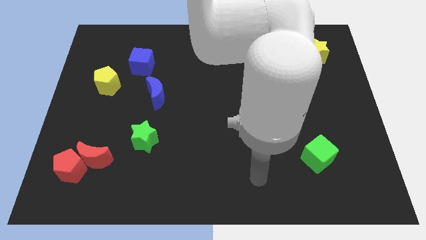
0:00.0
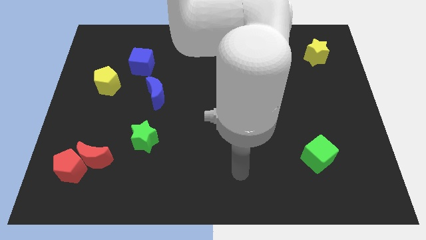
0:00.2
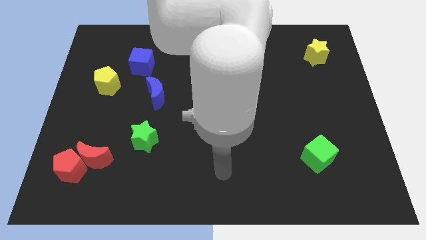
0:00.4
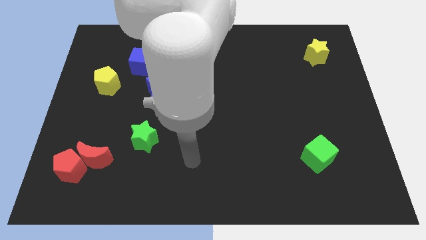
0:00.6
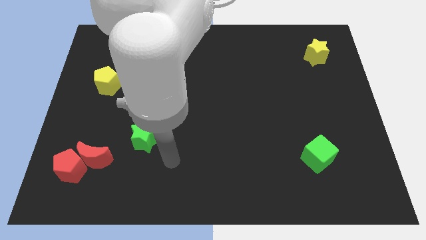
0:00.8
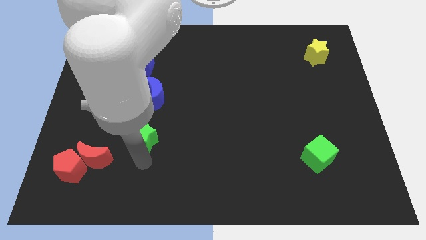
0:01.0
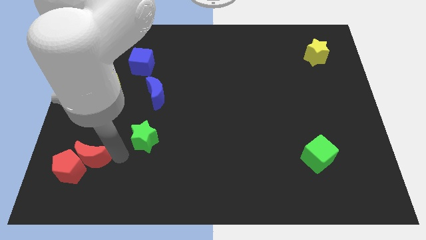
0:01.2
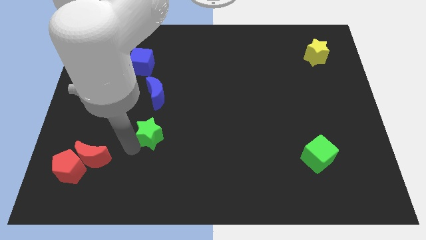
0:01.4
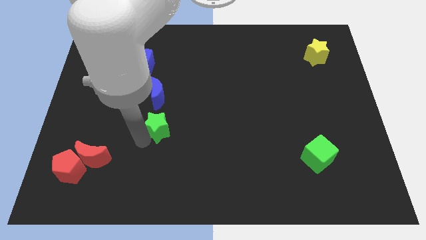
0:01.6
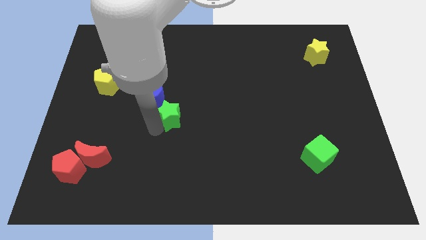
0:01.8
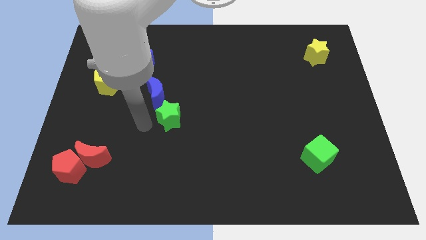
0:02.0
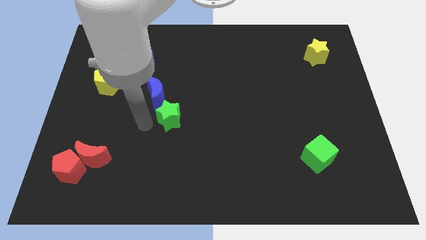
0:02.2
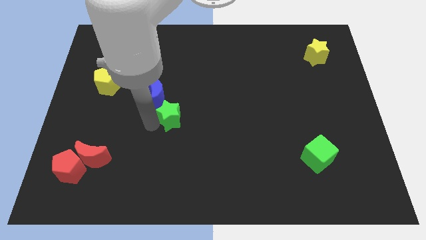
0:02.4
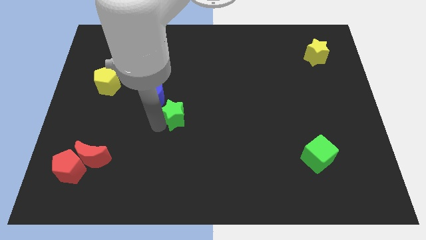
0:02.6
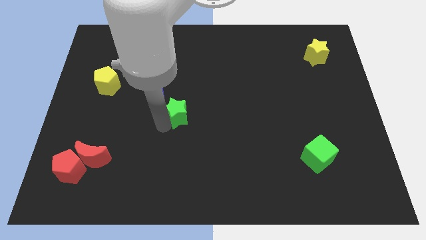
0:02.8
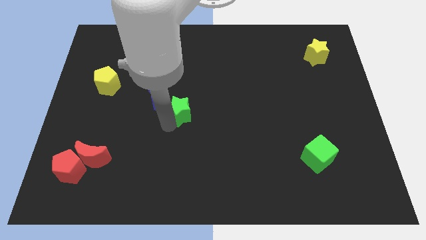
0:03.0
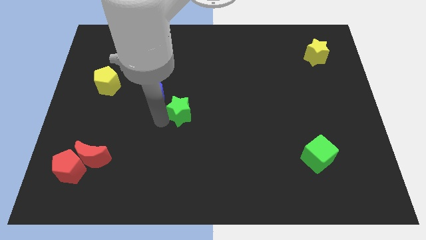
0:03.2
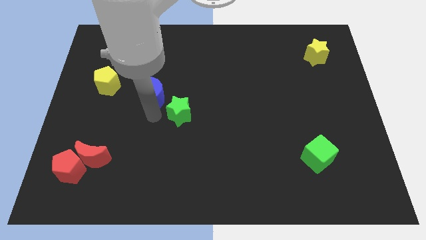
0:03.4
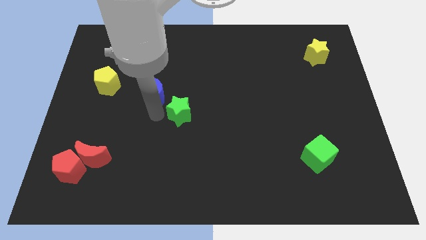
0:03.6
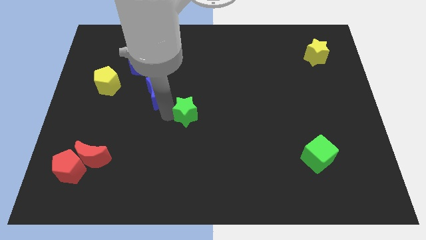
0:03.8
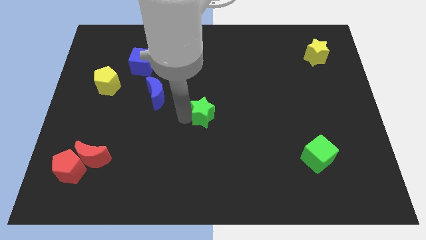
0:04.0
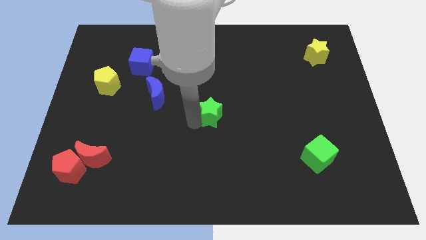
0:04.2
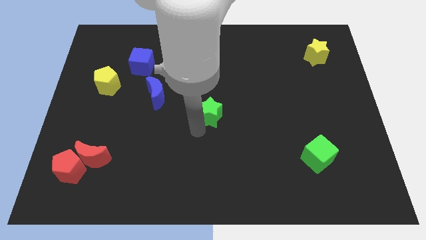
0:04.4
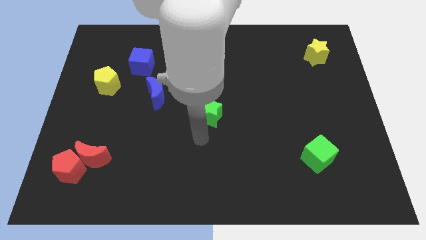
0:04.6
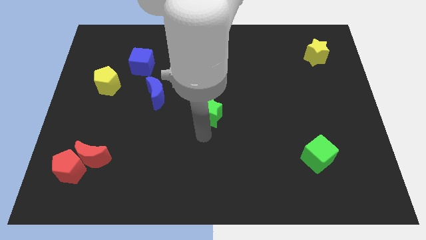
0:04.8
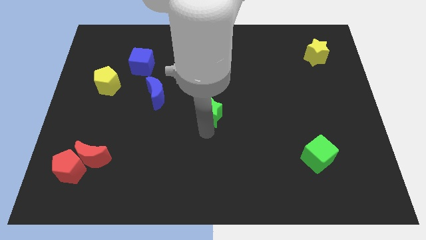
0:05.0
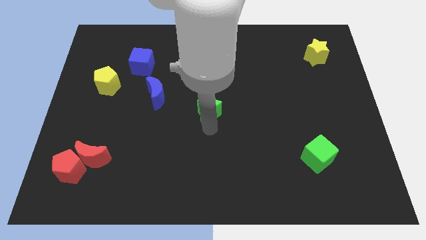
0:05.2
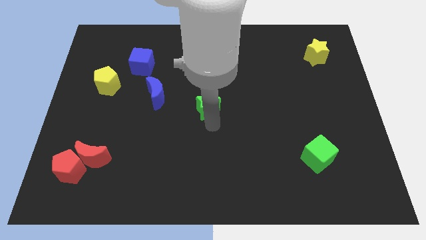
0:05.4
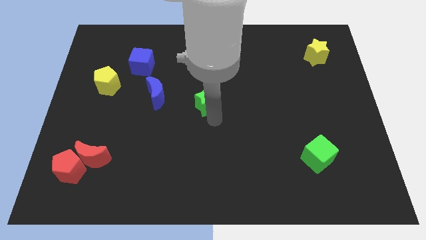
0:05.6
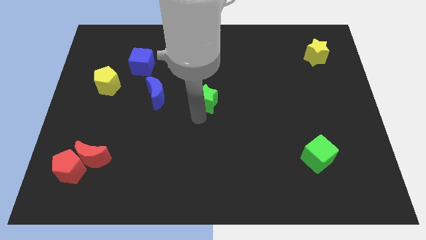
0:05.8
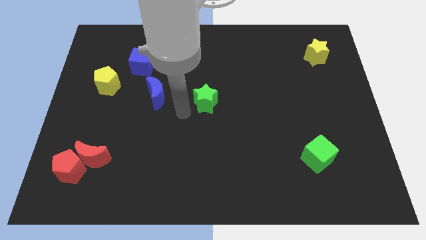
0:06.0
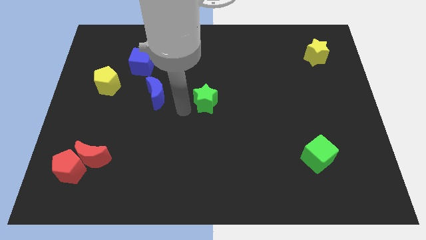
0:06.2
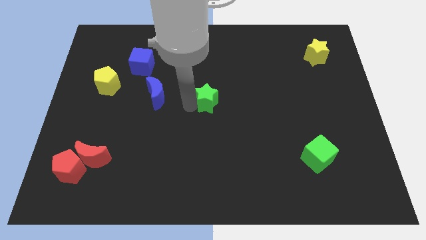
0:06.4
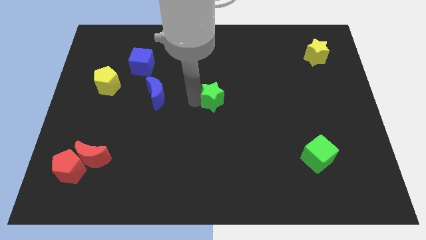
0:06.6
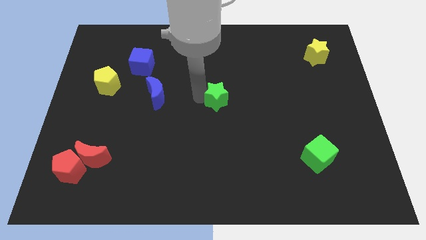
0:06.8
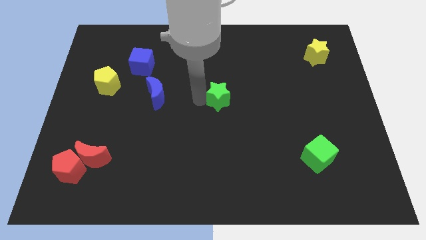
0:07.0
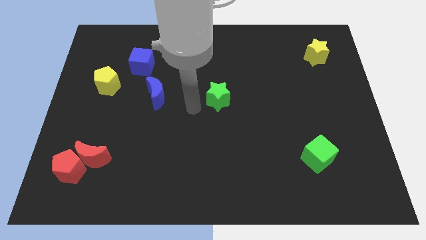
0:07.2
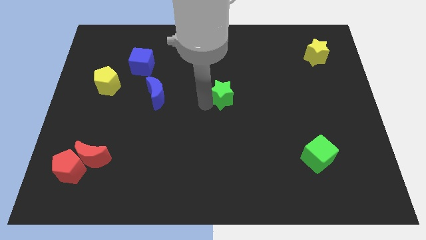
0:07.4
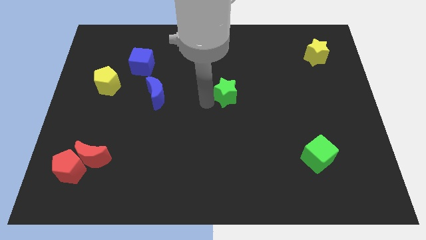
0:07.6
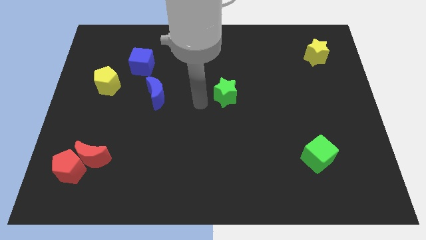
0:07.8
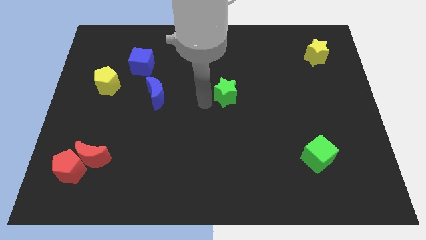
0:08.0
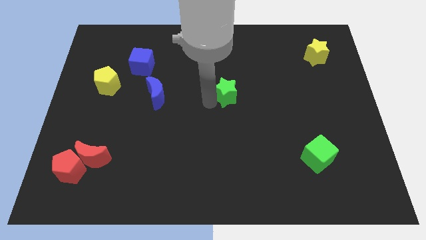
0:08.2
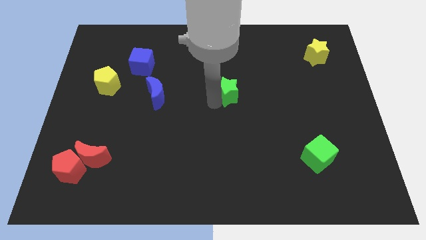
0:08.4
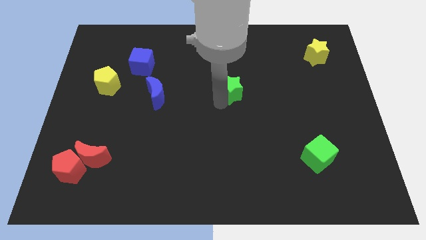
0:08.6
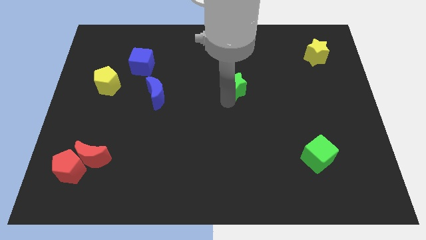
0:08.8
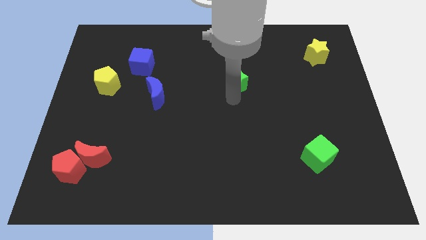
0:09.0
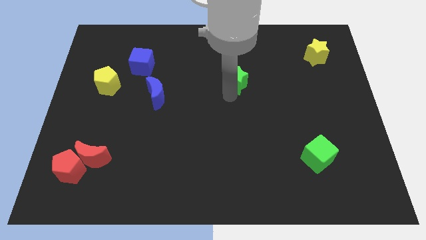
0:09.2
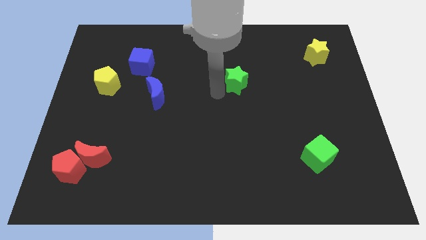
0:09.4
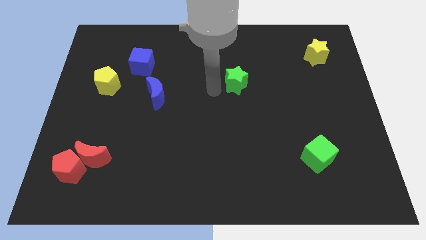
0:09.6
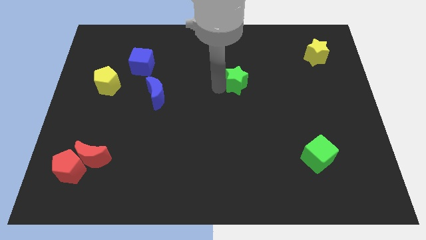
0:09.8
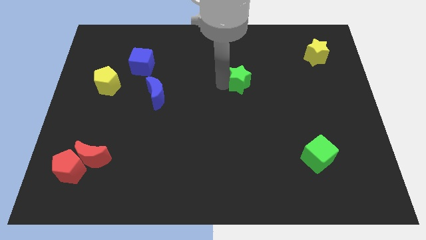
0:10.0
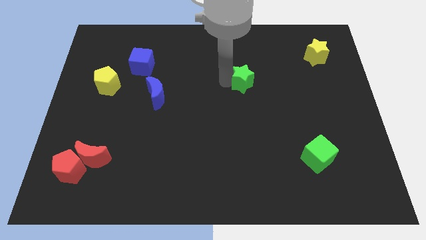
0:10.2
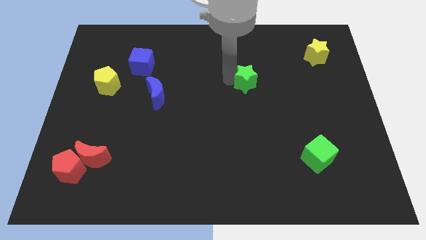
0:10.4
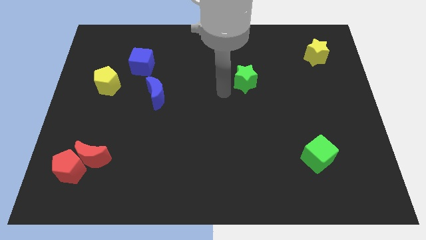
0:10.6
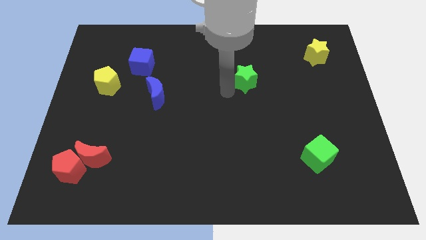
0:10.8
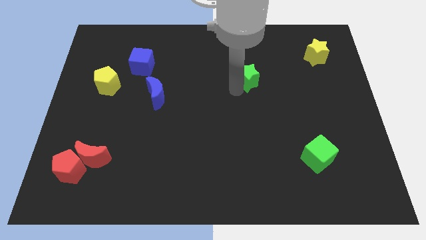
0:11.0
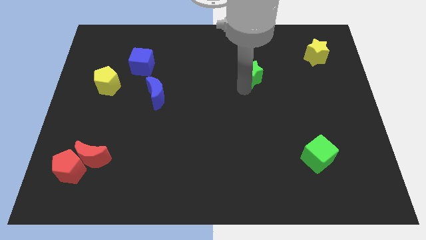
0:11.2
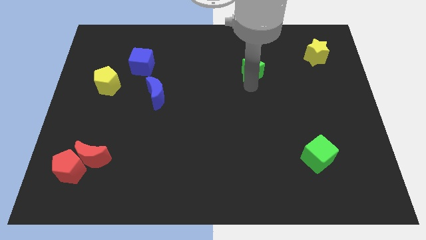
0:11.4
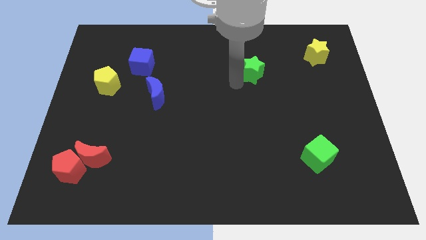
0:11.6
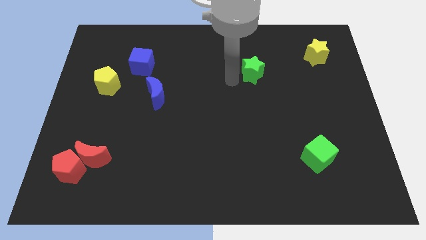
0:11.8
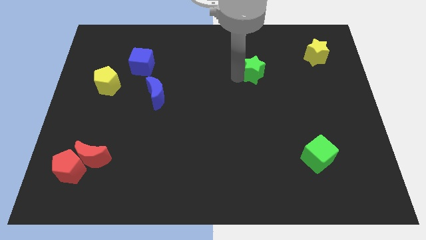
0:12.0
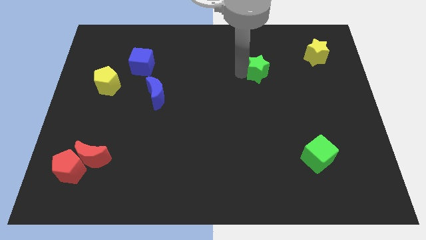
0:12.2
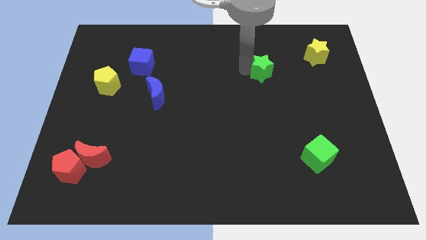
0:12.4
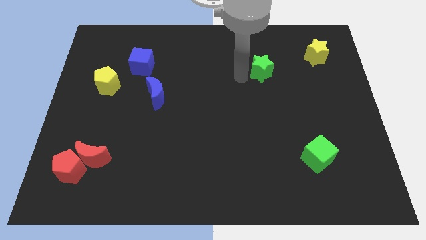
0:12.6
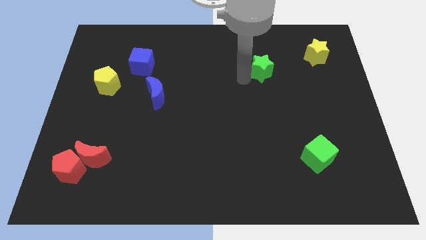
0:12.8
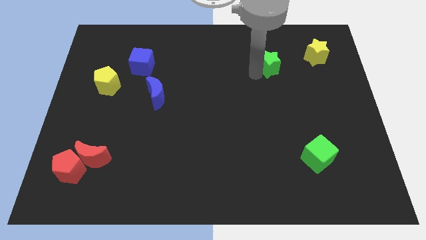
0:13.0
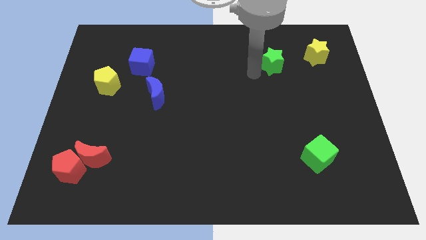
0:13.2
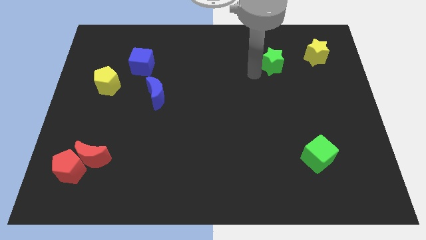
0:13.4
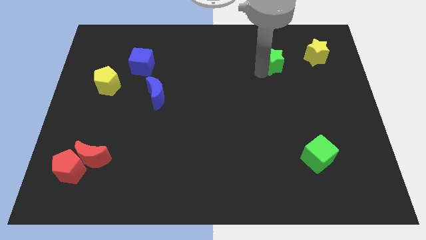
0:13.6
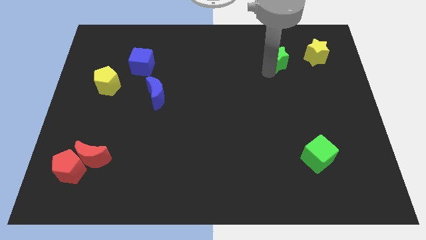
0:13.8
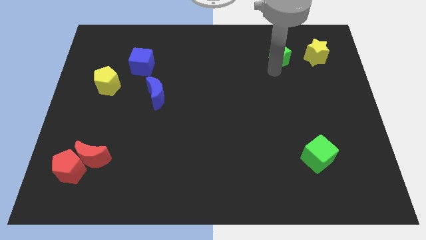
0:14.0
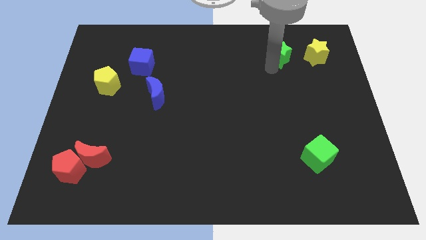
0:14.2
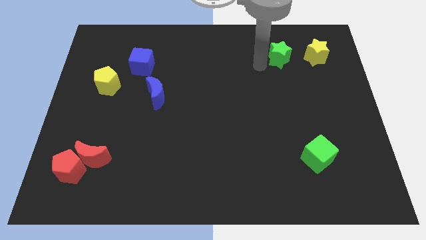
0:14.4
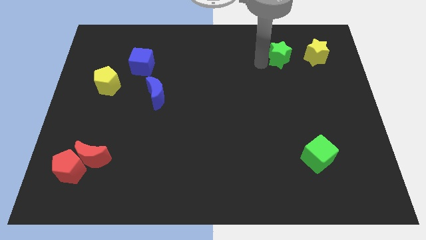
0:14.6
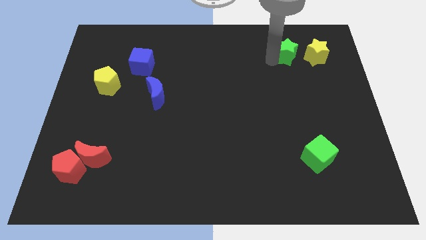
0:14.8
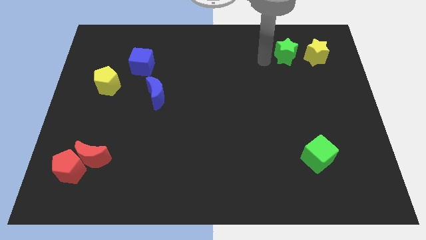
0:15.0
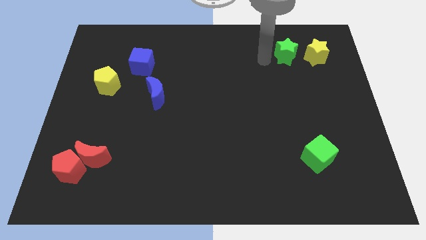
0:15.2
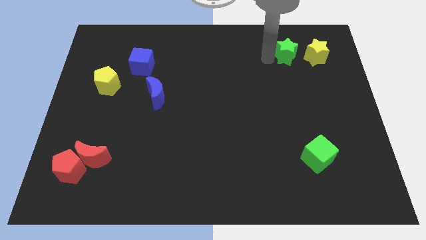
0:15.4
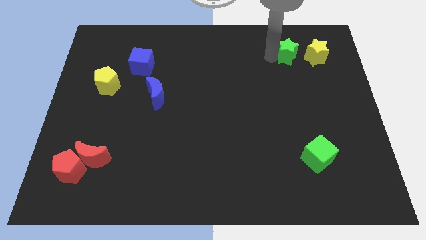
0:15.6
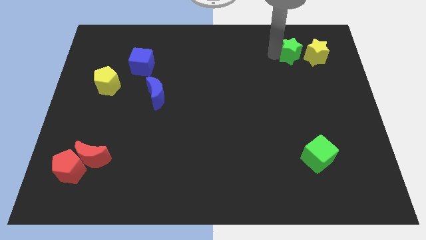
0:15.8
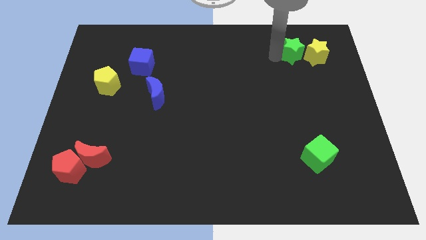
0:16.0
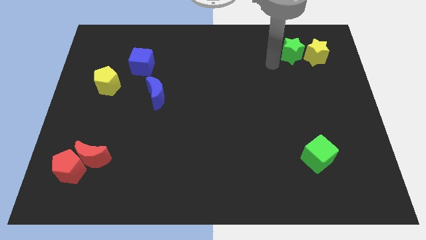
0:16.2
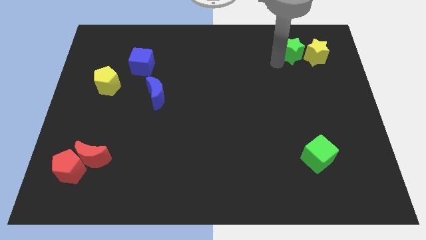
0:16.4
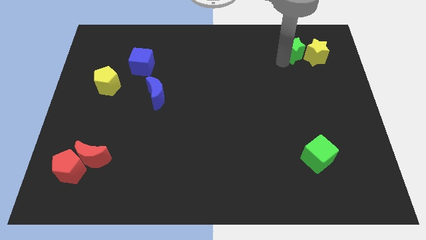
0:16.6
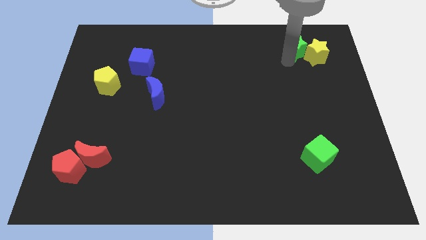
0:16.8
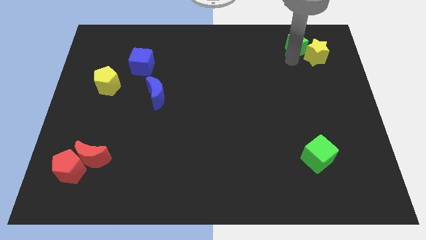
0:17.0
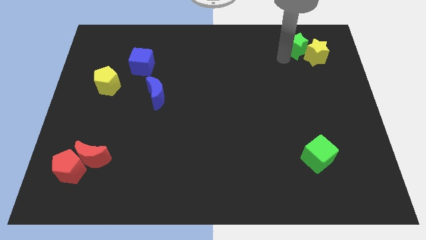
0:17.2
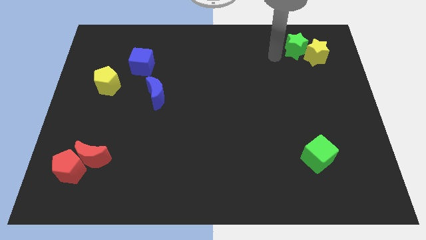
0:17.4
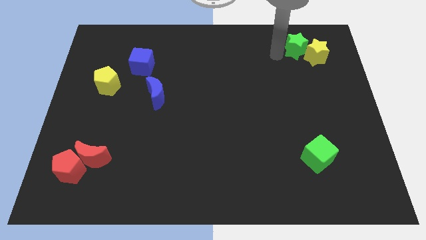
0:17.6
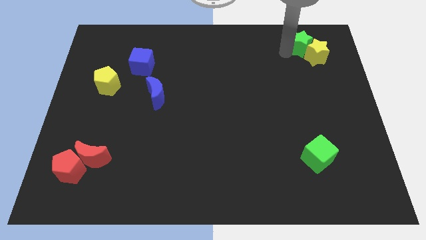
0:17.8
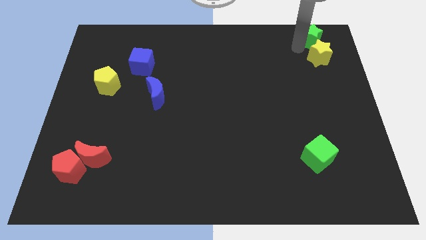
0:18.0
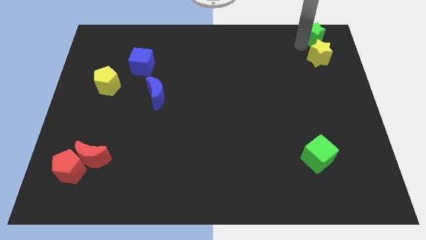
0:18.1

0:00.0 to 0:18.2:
slide the green star to the top right corner
